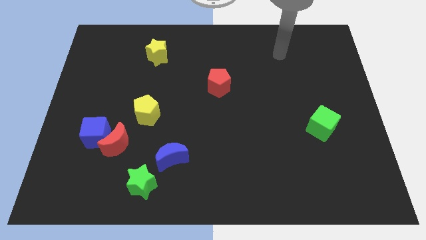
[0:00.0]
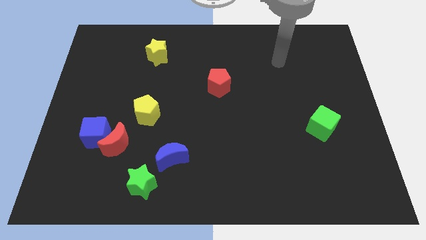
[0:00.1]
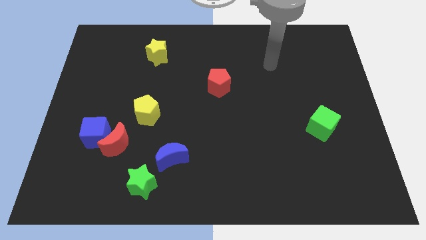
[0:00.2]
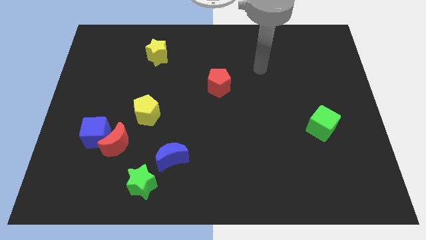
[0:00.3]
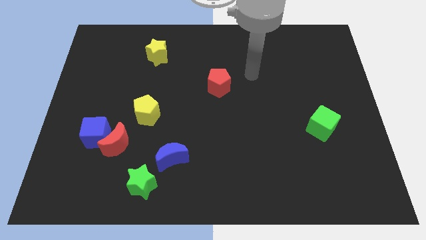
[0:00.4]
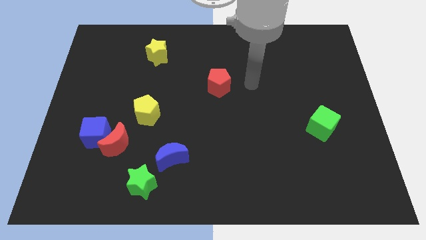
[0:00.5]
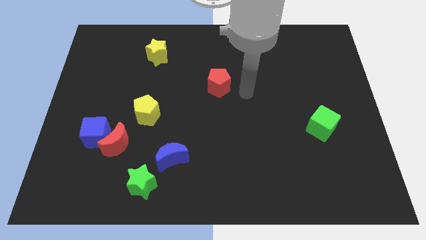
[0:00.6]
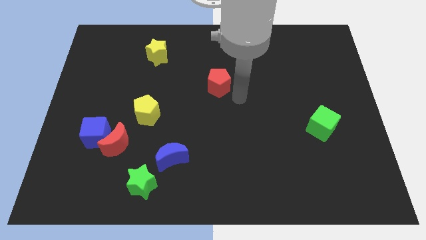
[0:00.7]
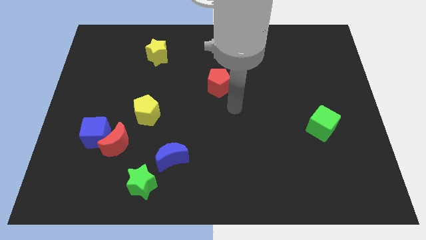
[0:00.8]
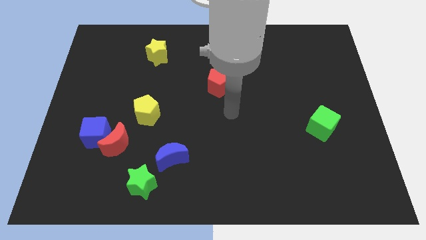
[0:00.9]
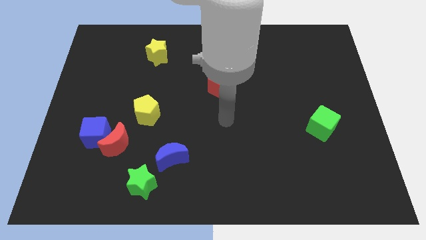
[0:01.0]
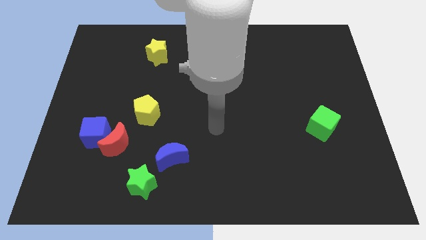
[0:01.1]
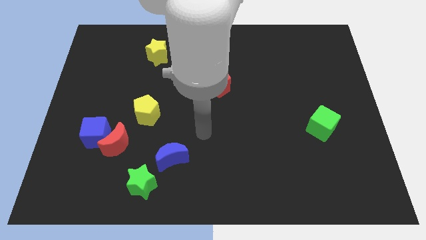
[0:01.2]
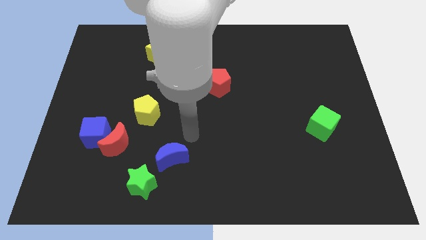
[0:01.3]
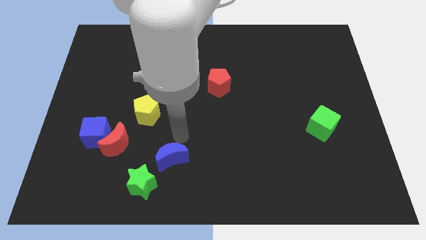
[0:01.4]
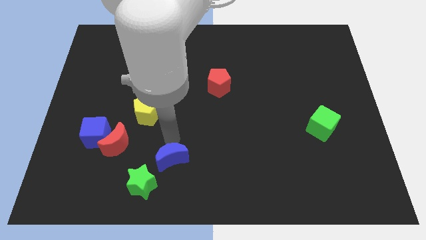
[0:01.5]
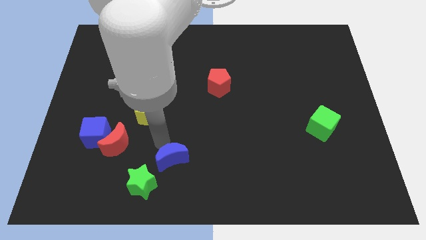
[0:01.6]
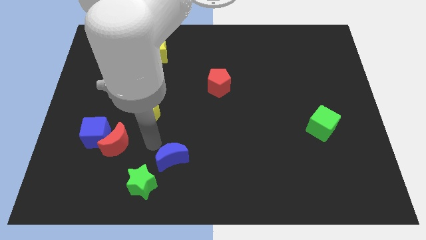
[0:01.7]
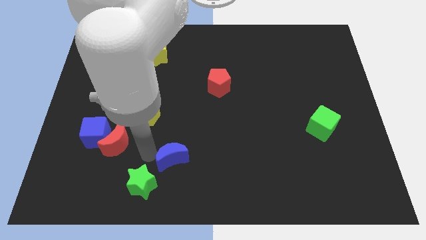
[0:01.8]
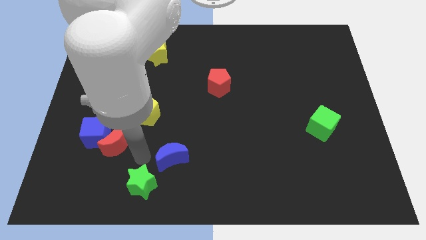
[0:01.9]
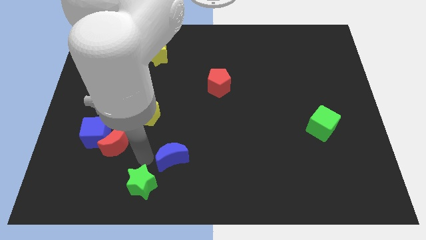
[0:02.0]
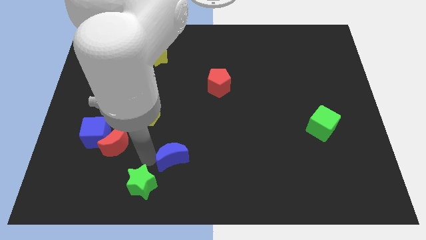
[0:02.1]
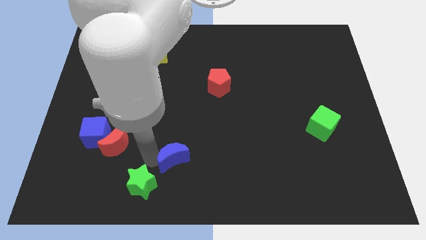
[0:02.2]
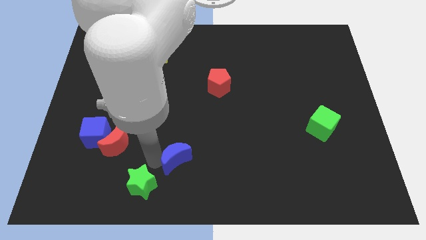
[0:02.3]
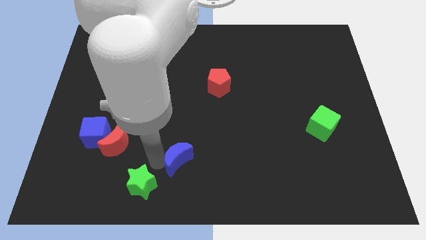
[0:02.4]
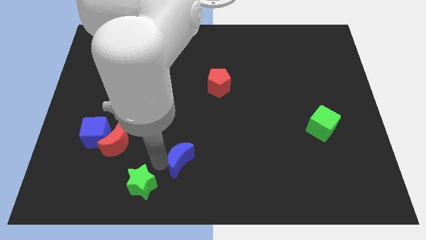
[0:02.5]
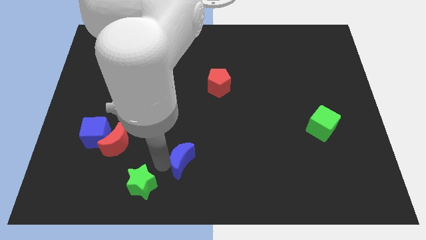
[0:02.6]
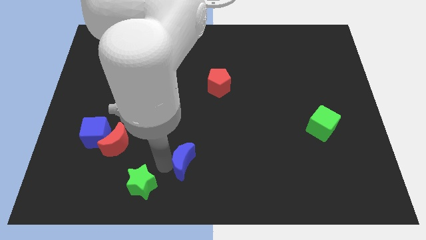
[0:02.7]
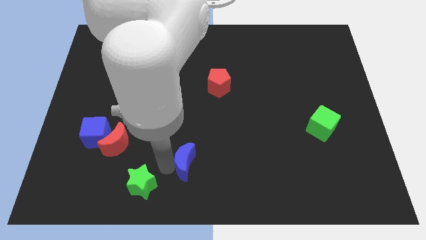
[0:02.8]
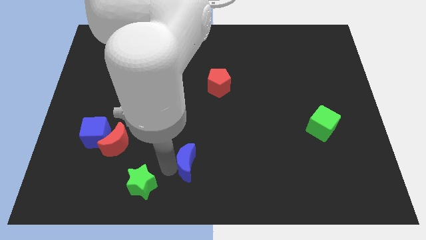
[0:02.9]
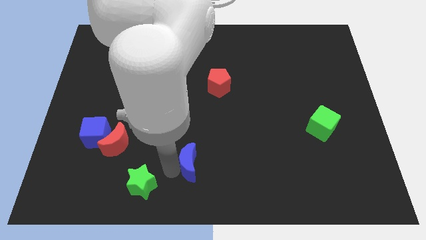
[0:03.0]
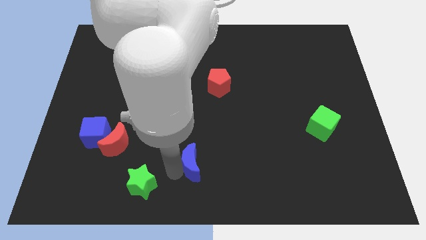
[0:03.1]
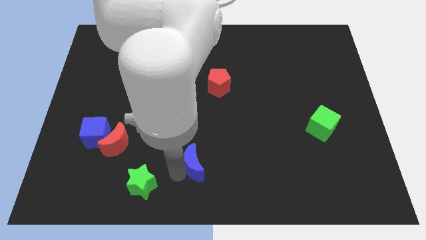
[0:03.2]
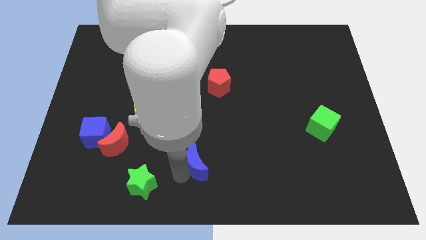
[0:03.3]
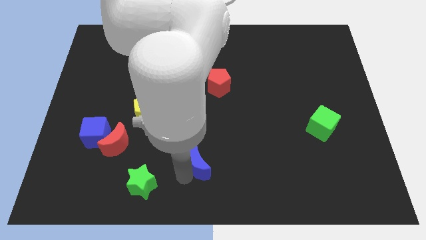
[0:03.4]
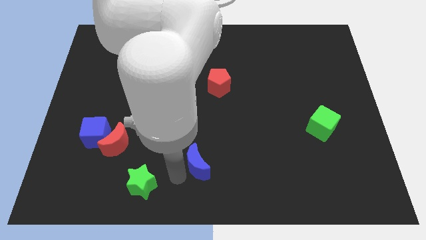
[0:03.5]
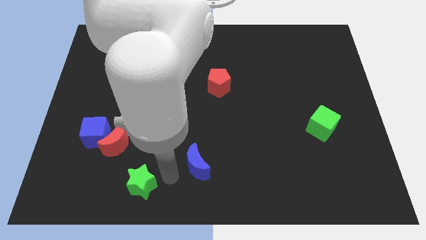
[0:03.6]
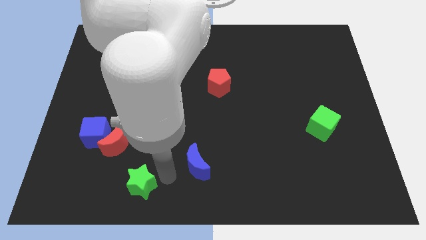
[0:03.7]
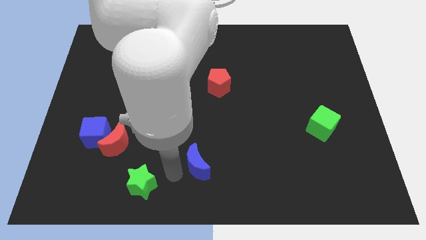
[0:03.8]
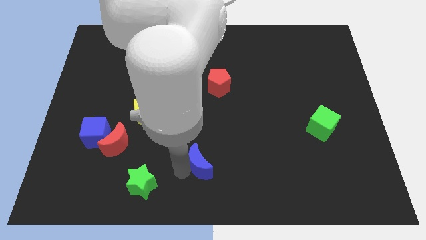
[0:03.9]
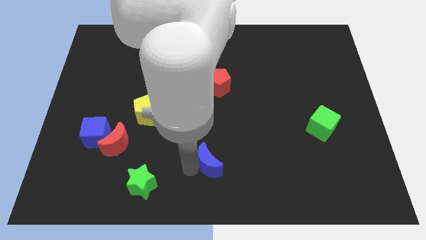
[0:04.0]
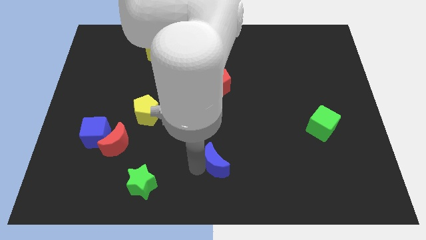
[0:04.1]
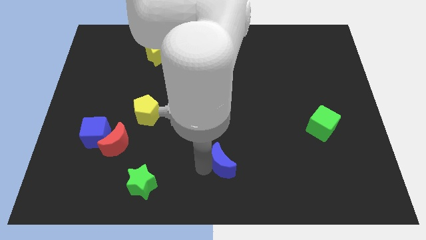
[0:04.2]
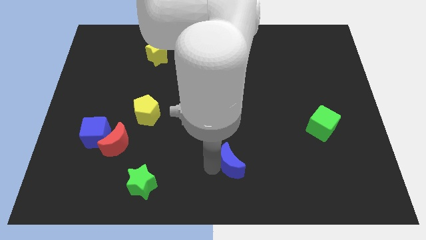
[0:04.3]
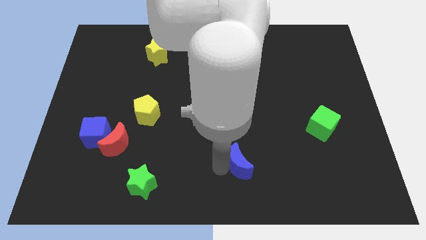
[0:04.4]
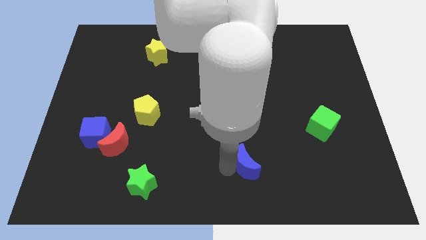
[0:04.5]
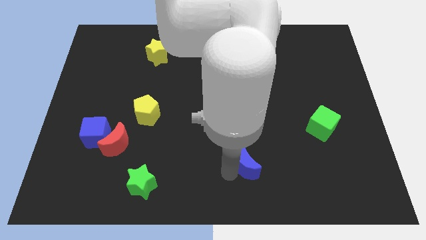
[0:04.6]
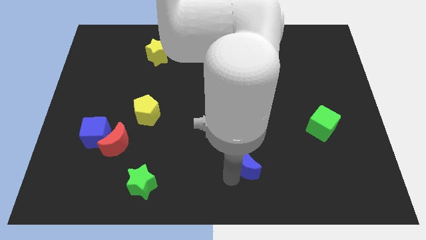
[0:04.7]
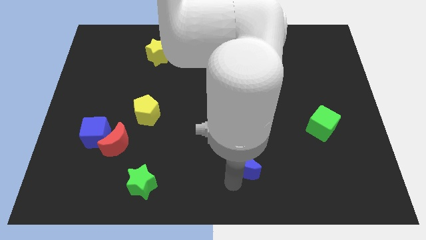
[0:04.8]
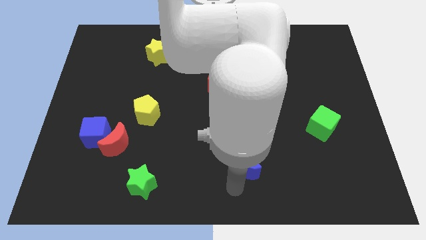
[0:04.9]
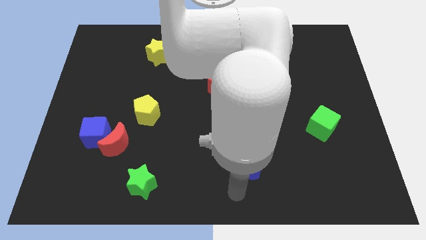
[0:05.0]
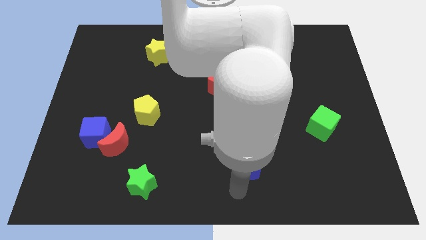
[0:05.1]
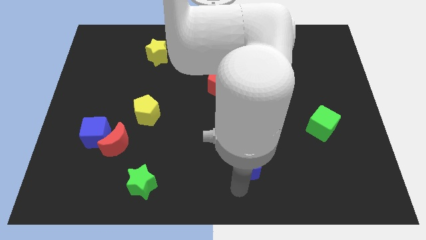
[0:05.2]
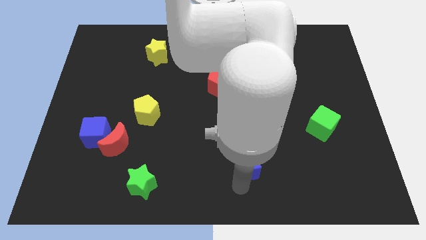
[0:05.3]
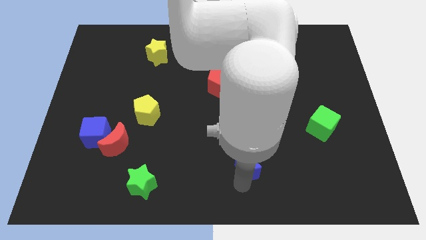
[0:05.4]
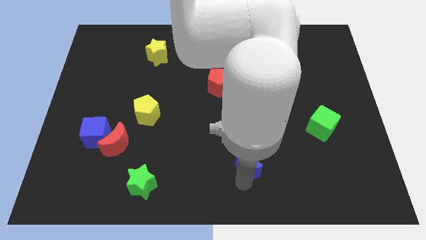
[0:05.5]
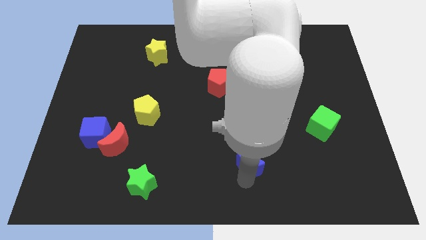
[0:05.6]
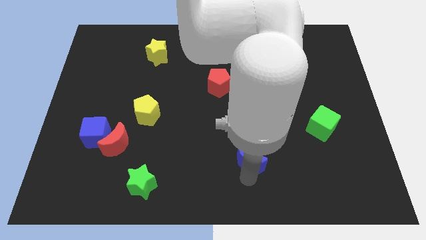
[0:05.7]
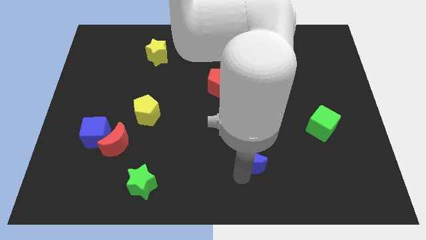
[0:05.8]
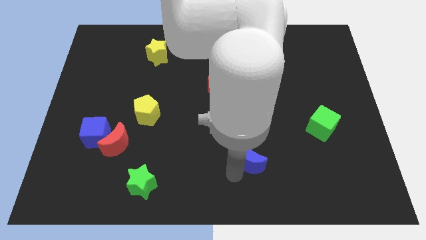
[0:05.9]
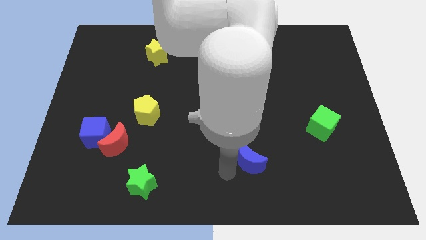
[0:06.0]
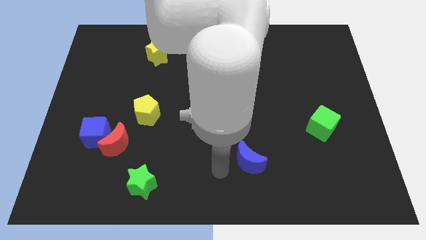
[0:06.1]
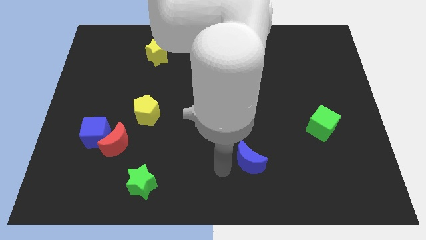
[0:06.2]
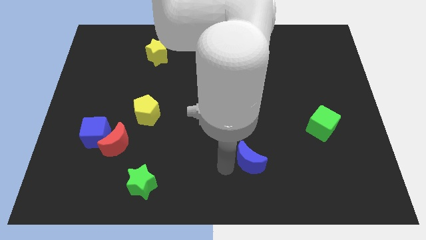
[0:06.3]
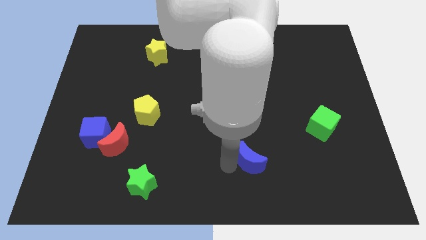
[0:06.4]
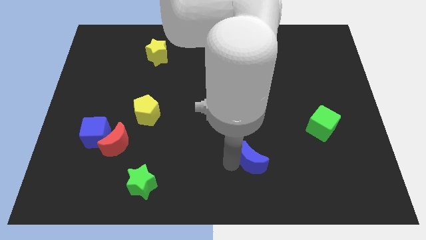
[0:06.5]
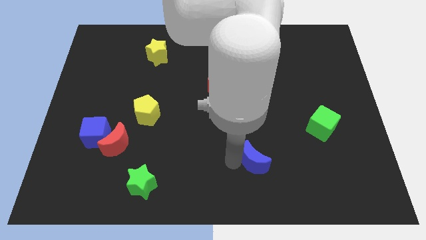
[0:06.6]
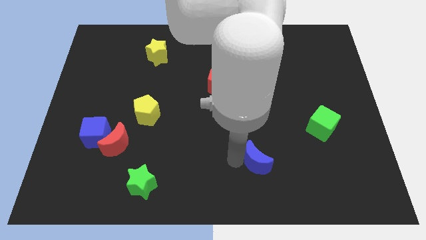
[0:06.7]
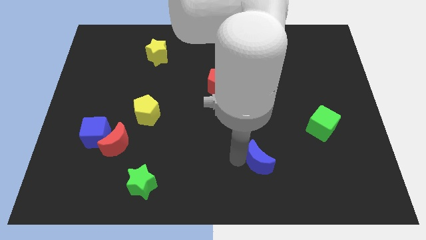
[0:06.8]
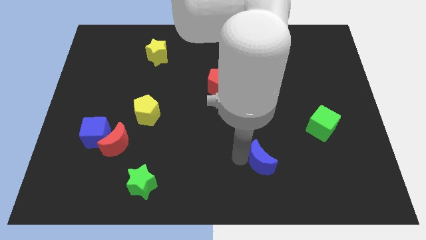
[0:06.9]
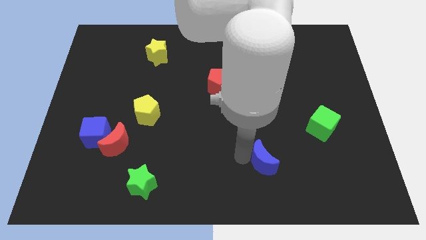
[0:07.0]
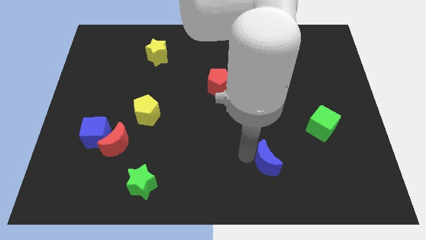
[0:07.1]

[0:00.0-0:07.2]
slide the blue moon right

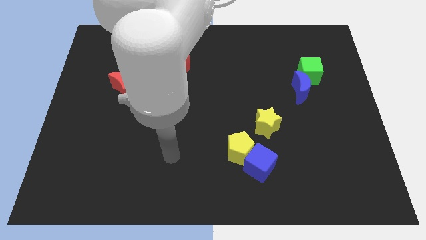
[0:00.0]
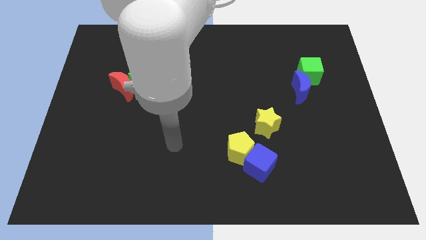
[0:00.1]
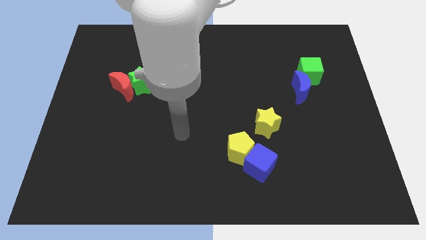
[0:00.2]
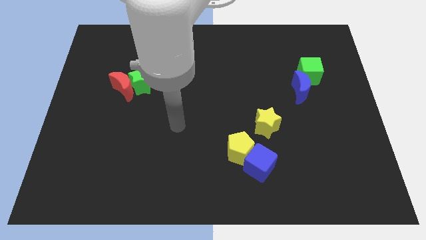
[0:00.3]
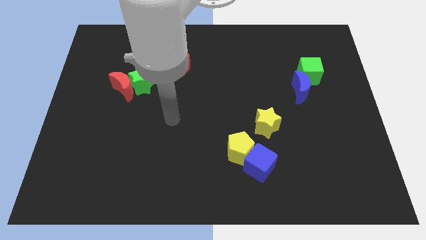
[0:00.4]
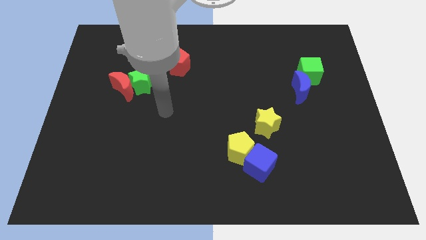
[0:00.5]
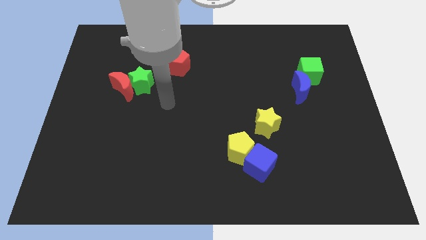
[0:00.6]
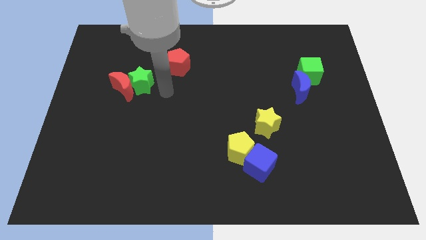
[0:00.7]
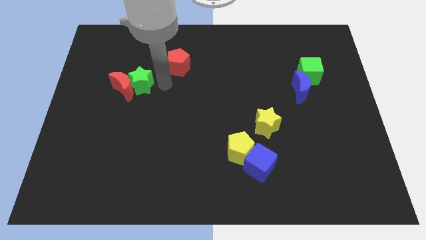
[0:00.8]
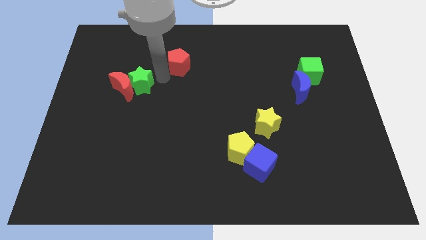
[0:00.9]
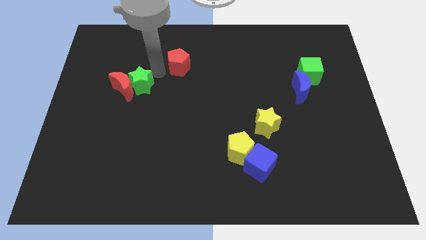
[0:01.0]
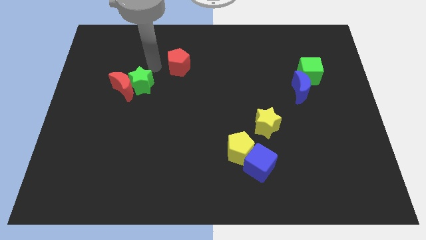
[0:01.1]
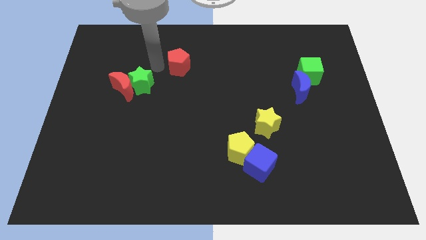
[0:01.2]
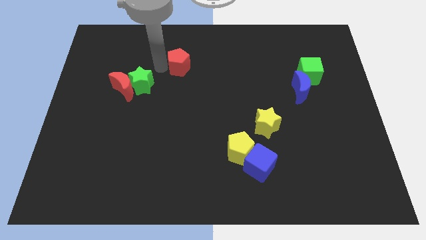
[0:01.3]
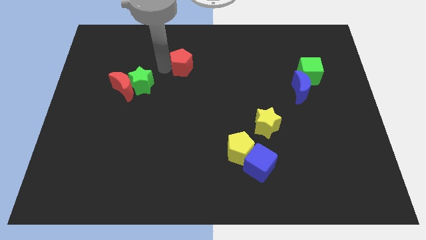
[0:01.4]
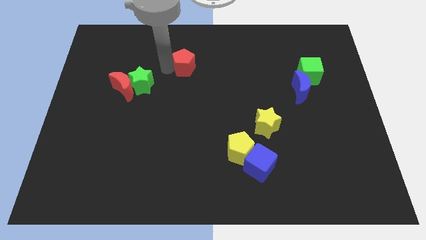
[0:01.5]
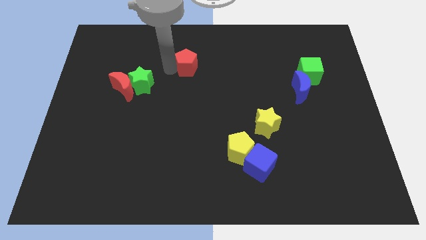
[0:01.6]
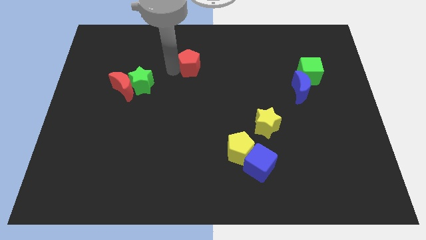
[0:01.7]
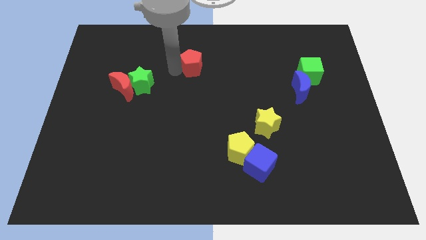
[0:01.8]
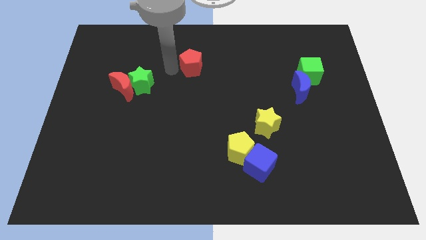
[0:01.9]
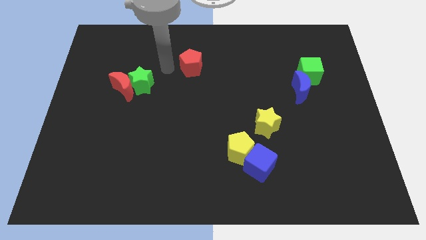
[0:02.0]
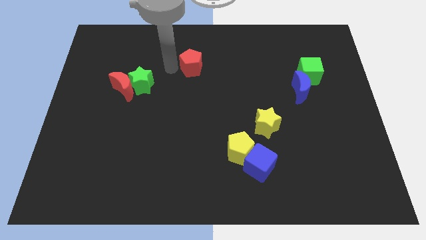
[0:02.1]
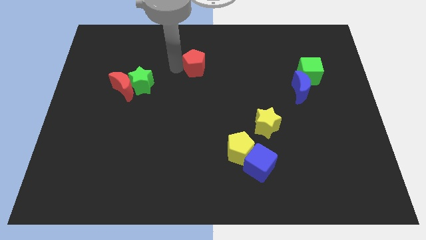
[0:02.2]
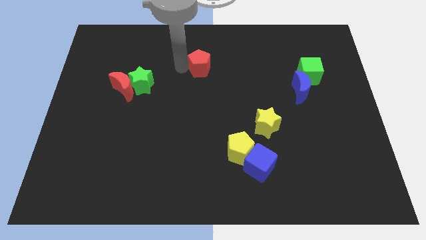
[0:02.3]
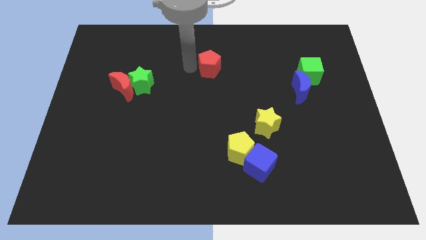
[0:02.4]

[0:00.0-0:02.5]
slightly push the red pentagon to the right
